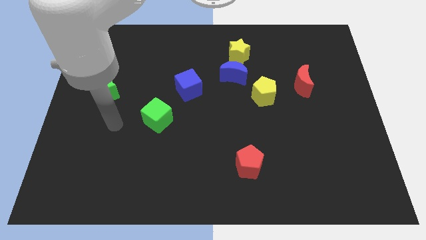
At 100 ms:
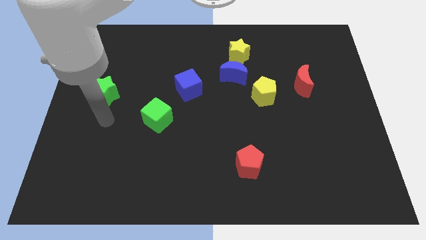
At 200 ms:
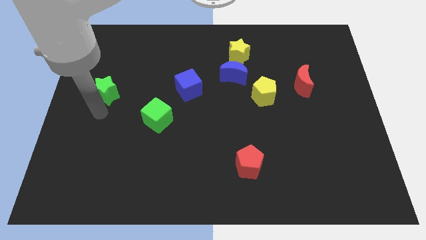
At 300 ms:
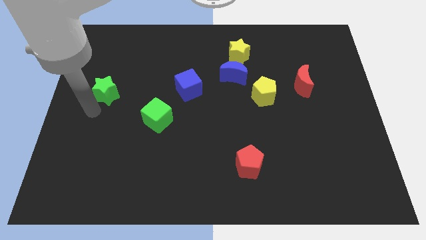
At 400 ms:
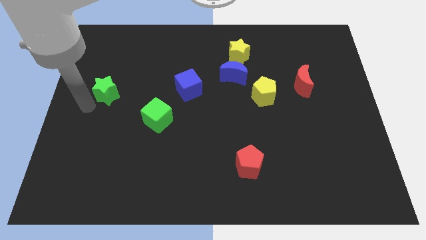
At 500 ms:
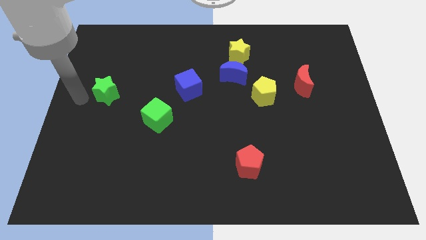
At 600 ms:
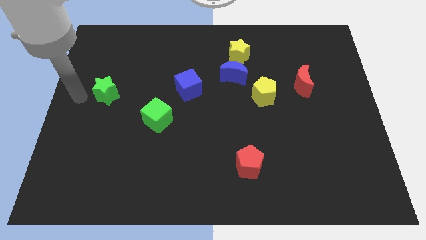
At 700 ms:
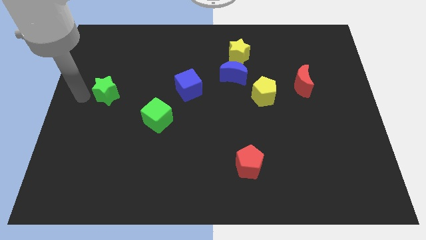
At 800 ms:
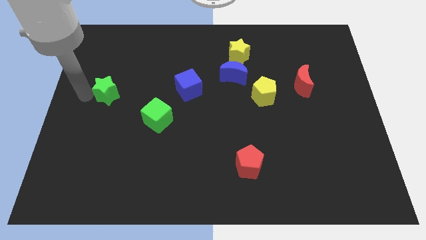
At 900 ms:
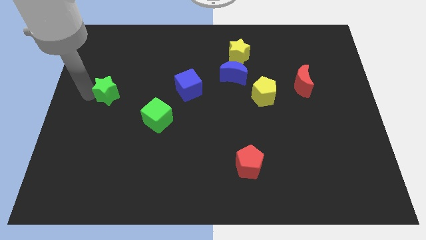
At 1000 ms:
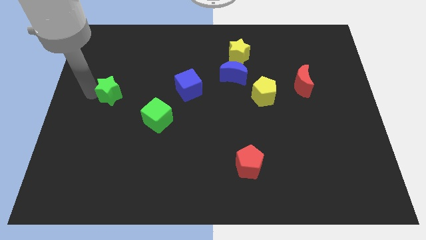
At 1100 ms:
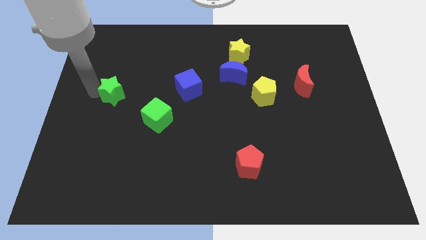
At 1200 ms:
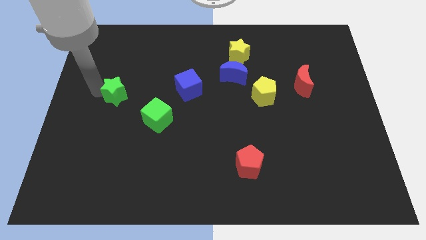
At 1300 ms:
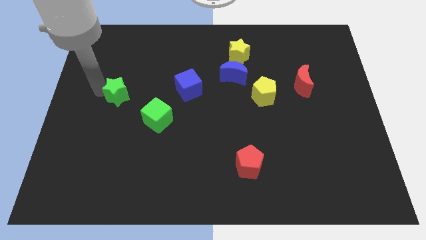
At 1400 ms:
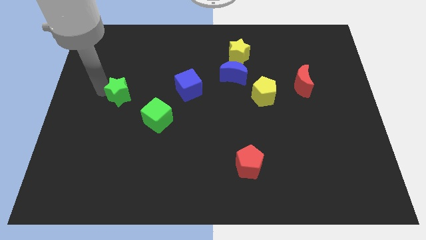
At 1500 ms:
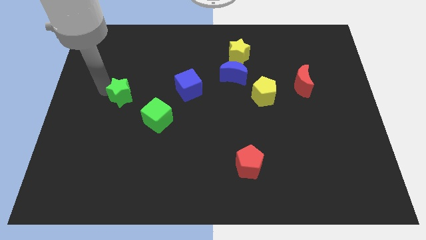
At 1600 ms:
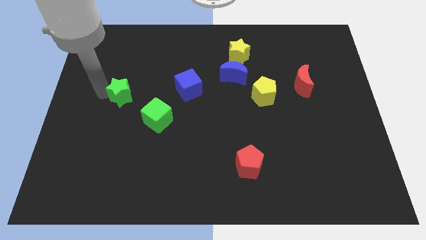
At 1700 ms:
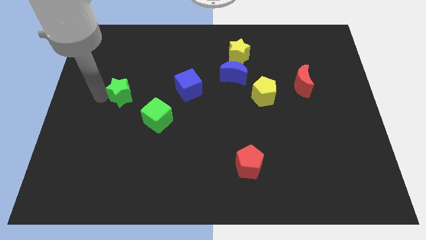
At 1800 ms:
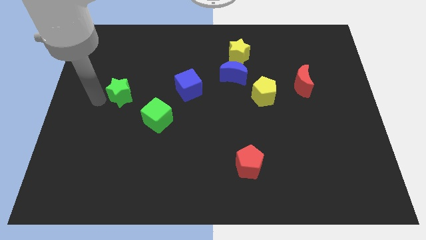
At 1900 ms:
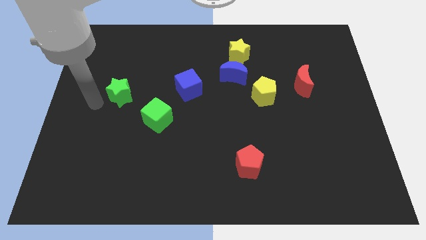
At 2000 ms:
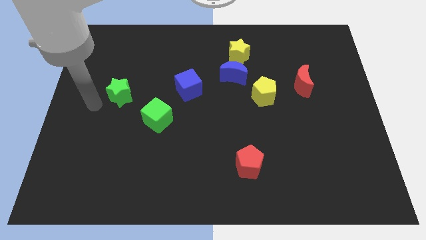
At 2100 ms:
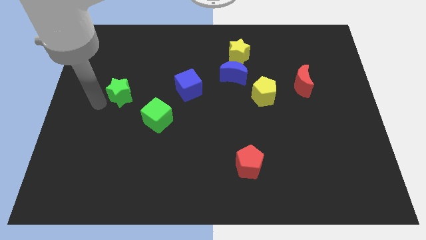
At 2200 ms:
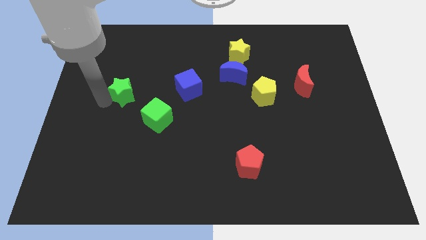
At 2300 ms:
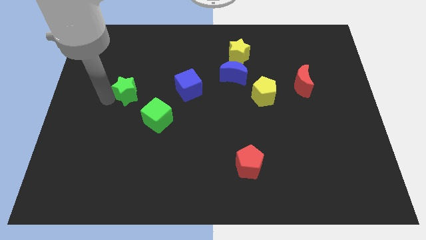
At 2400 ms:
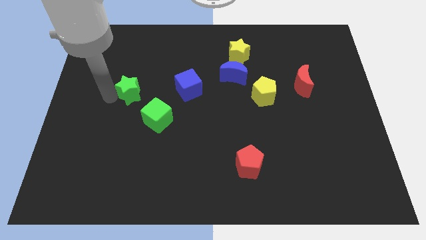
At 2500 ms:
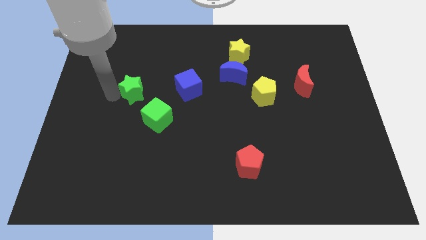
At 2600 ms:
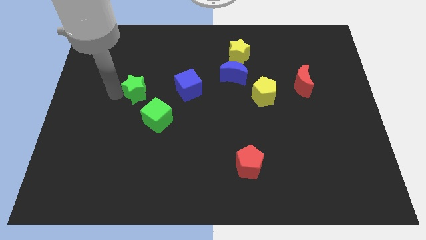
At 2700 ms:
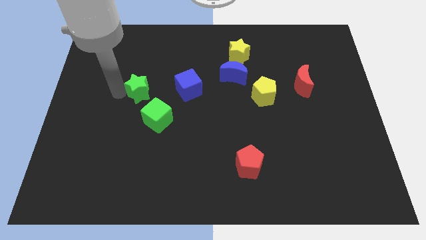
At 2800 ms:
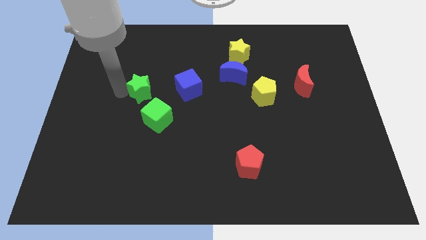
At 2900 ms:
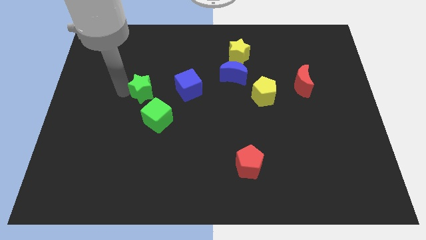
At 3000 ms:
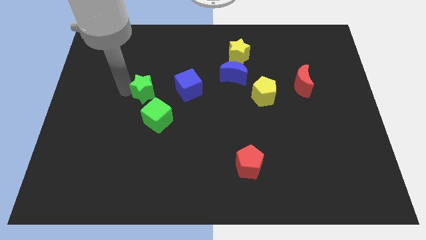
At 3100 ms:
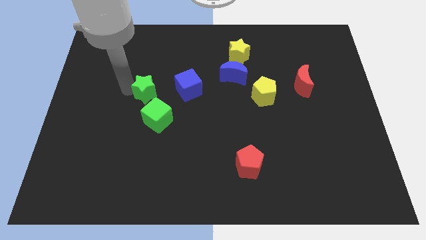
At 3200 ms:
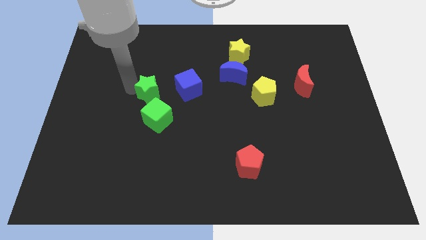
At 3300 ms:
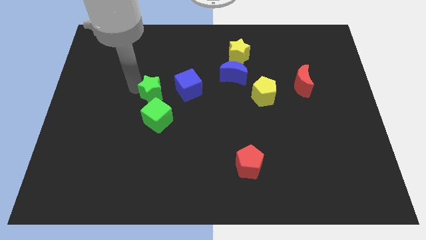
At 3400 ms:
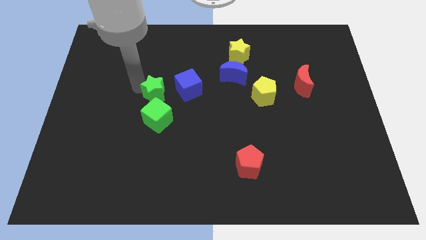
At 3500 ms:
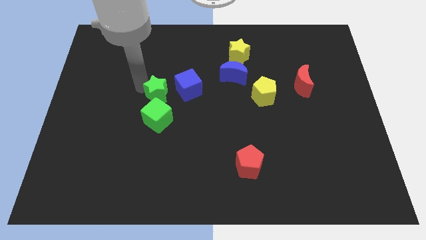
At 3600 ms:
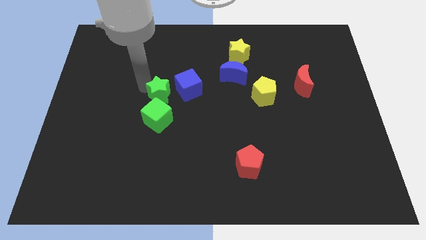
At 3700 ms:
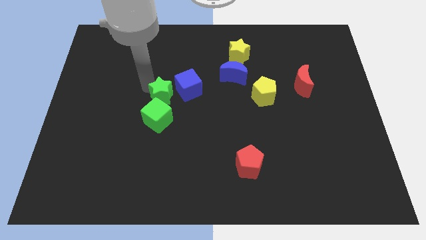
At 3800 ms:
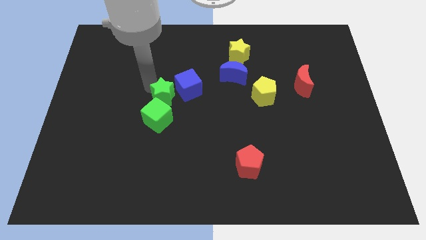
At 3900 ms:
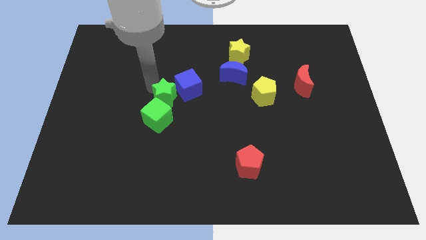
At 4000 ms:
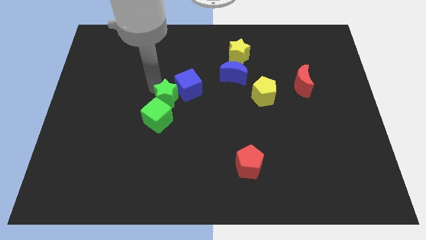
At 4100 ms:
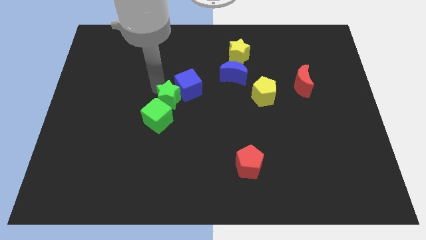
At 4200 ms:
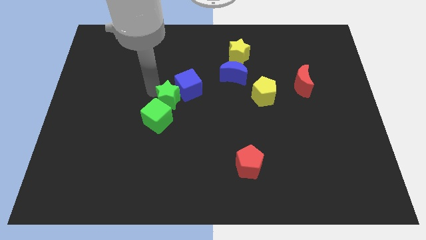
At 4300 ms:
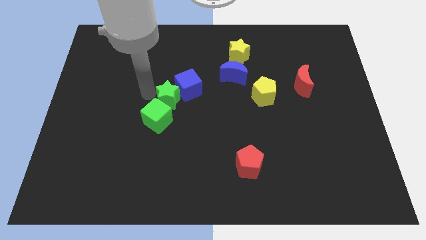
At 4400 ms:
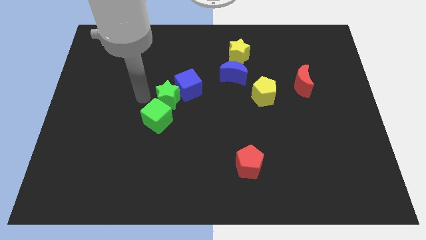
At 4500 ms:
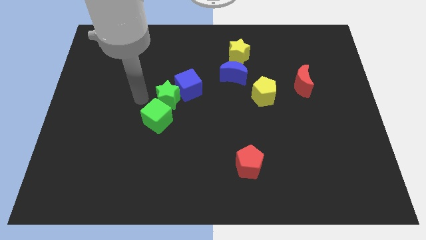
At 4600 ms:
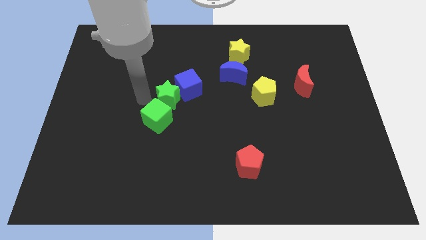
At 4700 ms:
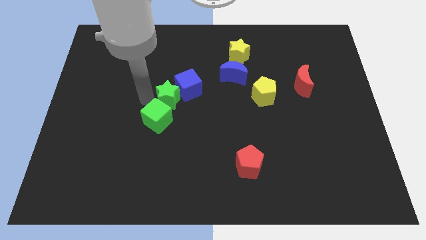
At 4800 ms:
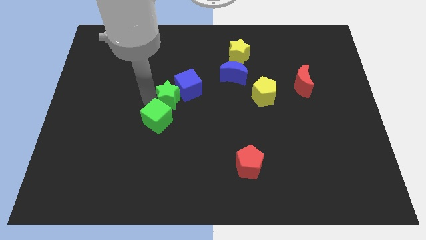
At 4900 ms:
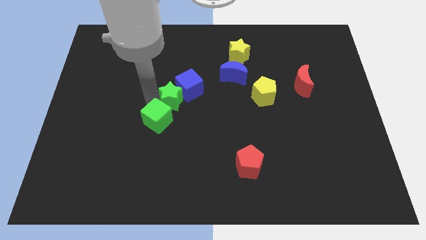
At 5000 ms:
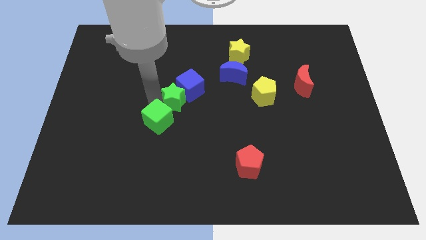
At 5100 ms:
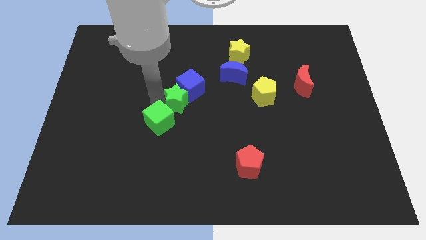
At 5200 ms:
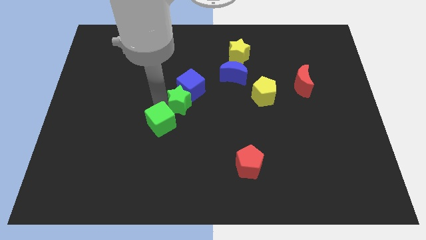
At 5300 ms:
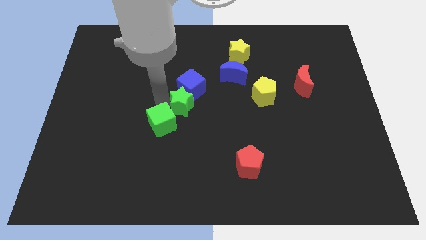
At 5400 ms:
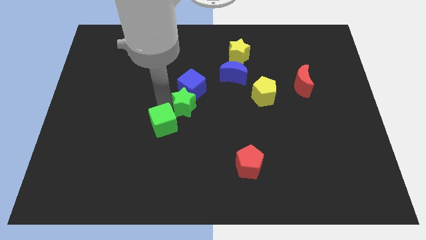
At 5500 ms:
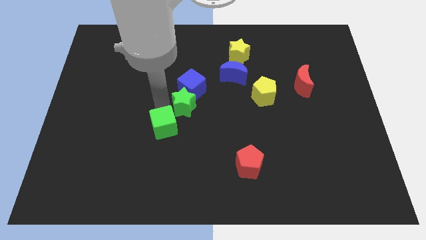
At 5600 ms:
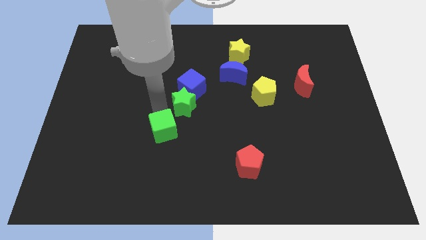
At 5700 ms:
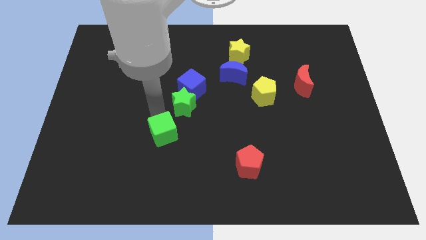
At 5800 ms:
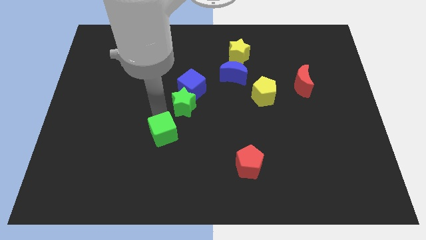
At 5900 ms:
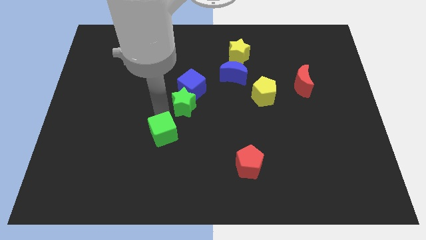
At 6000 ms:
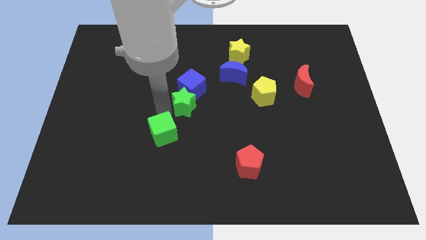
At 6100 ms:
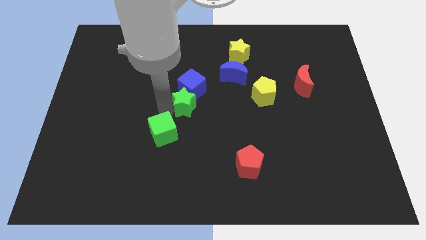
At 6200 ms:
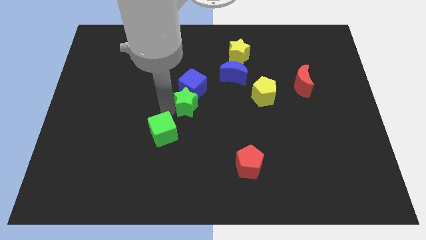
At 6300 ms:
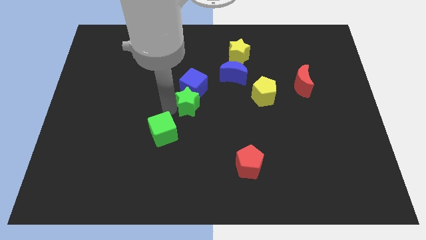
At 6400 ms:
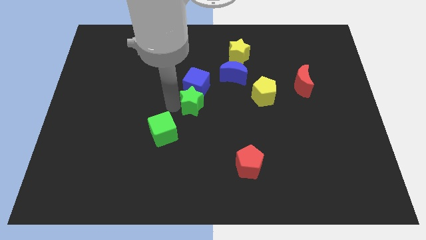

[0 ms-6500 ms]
move the green star to the right

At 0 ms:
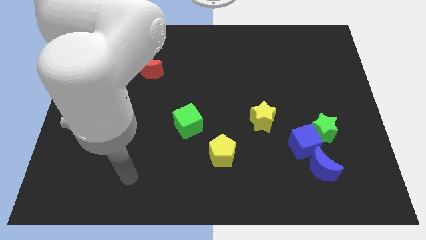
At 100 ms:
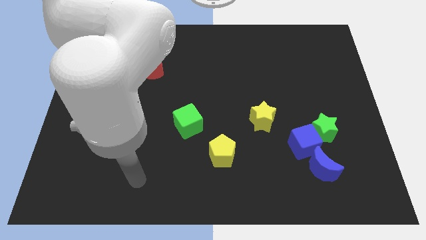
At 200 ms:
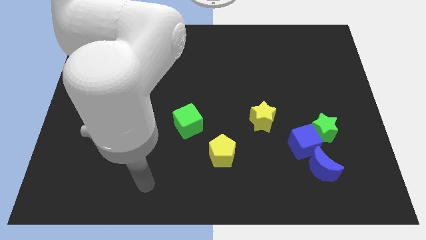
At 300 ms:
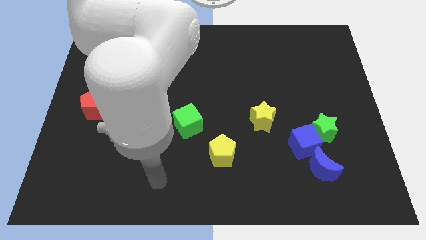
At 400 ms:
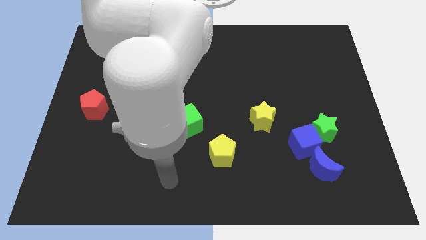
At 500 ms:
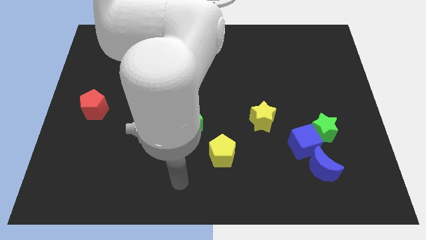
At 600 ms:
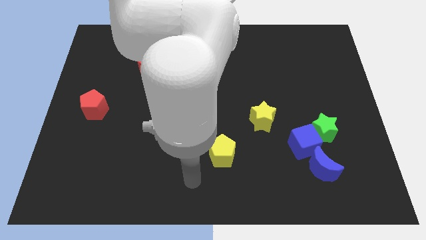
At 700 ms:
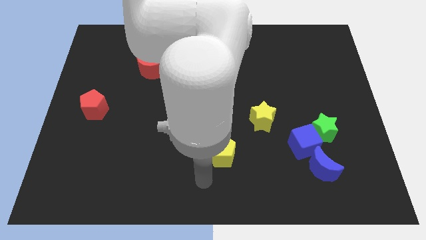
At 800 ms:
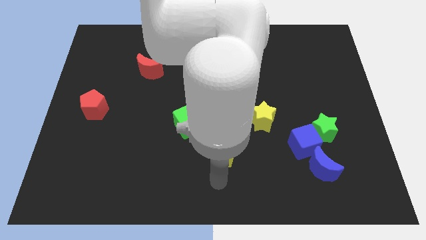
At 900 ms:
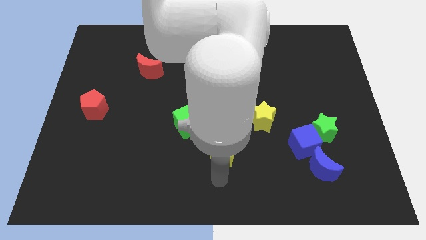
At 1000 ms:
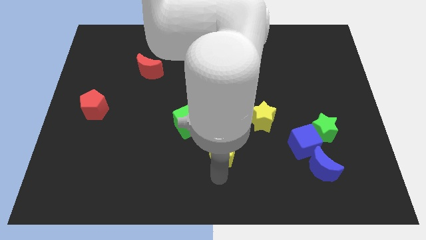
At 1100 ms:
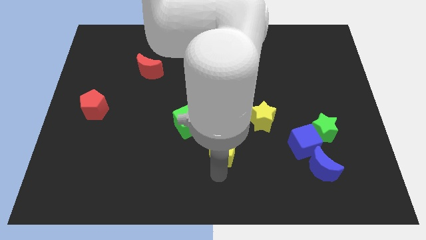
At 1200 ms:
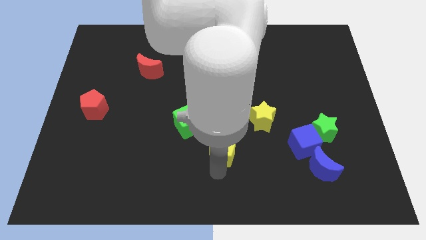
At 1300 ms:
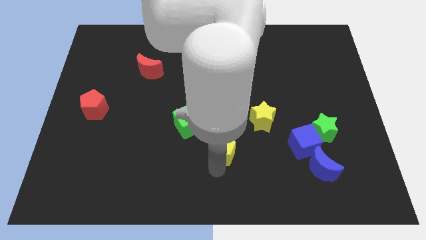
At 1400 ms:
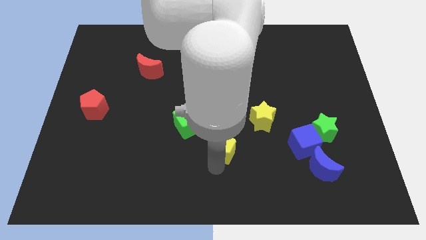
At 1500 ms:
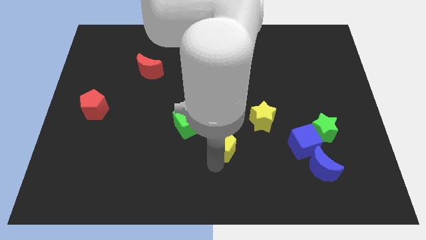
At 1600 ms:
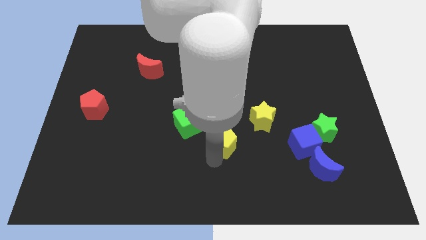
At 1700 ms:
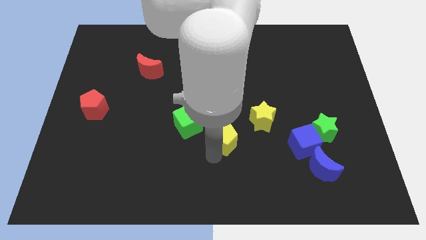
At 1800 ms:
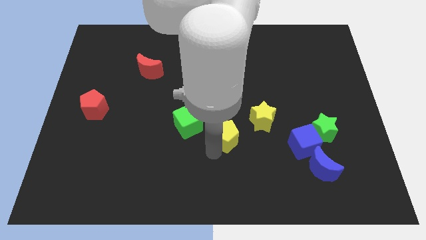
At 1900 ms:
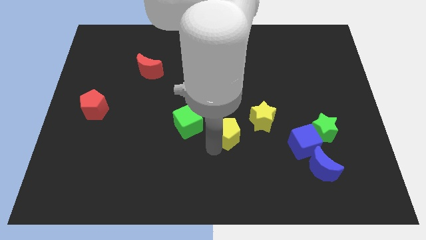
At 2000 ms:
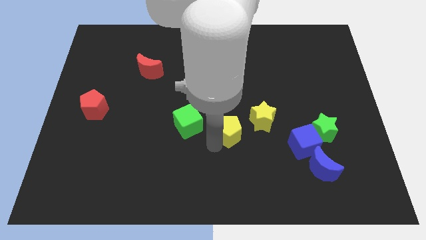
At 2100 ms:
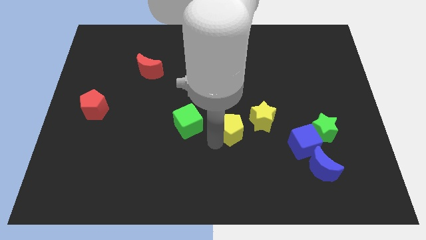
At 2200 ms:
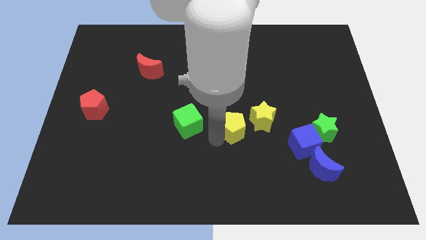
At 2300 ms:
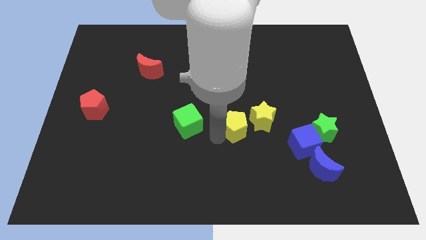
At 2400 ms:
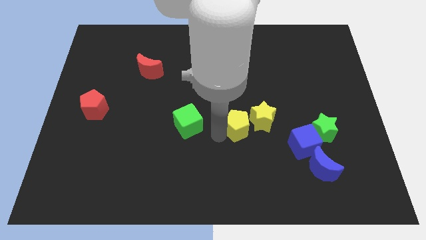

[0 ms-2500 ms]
slightly slide the yellow pentagon diagonally upwards and right
